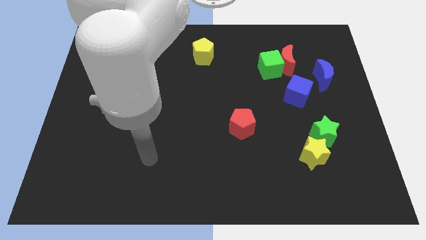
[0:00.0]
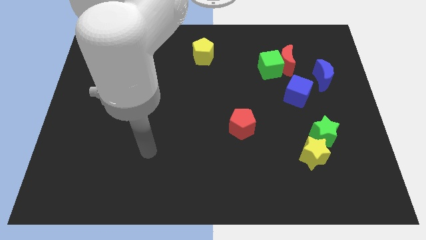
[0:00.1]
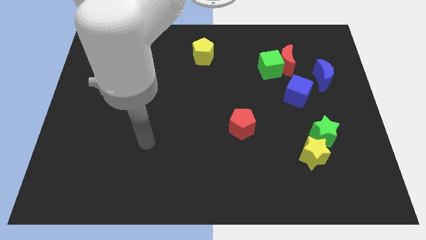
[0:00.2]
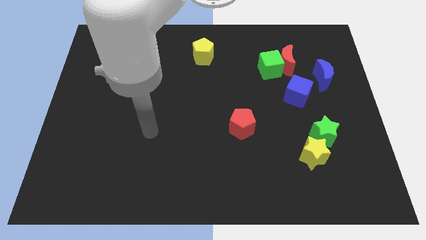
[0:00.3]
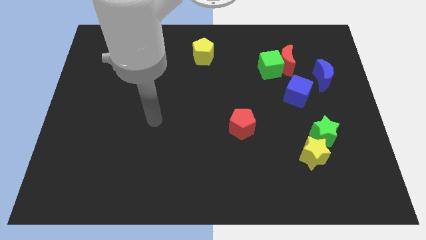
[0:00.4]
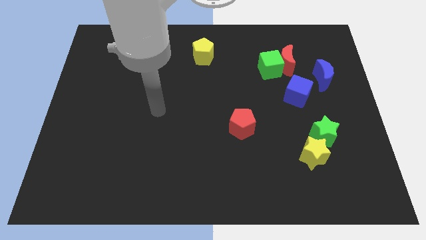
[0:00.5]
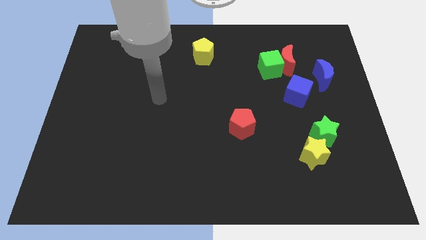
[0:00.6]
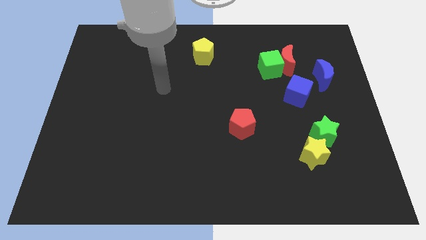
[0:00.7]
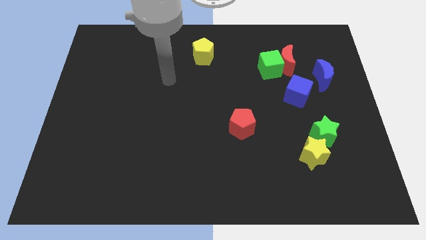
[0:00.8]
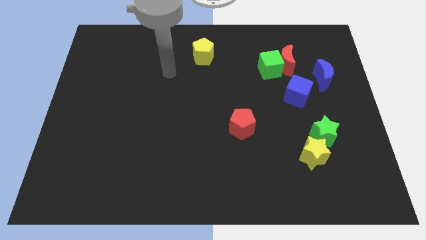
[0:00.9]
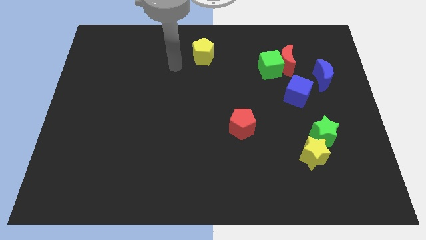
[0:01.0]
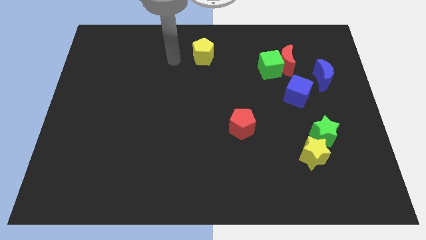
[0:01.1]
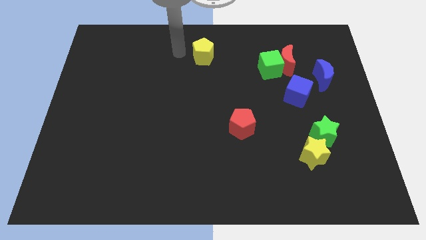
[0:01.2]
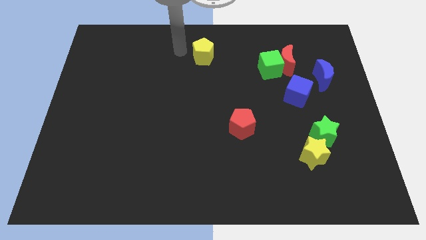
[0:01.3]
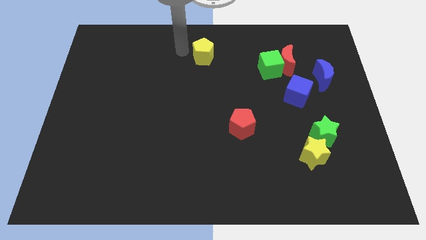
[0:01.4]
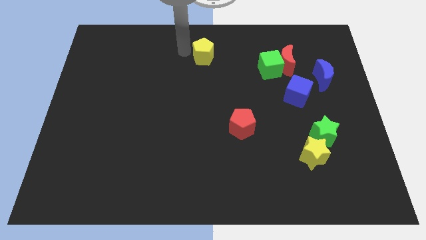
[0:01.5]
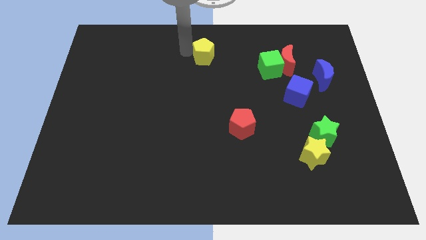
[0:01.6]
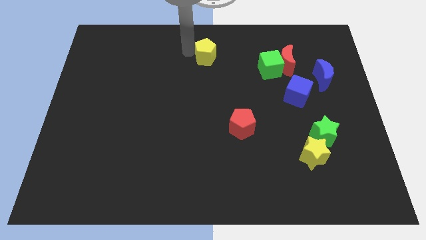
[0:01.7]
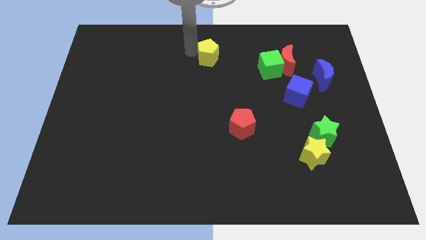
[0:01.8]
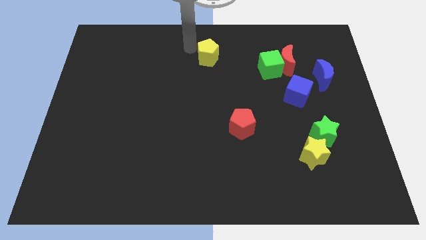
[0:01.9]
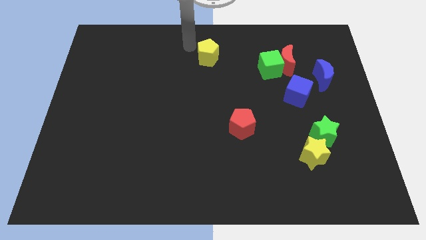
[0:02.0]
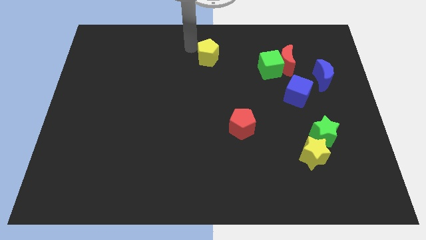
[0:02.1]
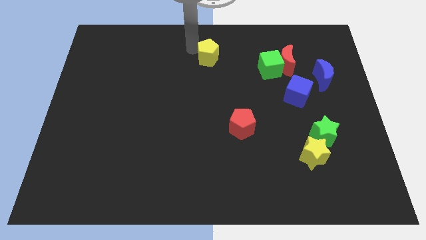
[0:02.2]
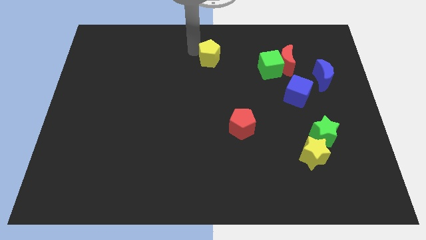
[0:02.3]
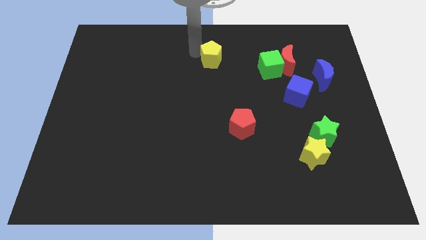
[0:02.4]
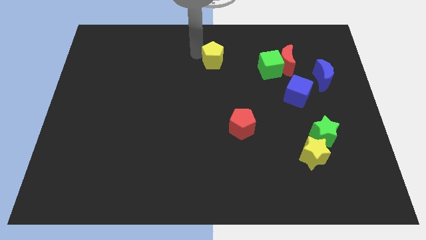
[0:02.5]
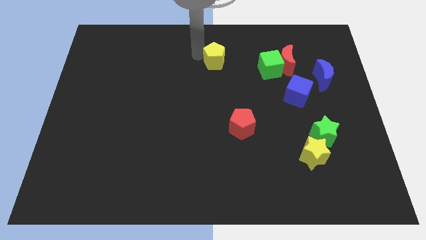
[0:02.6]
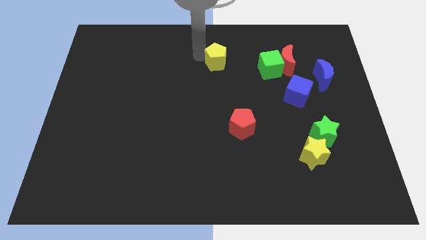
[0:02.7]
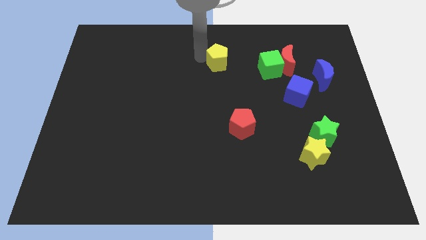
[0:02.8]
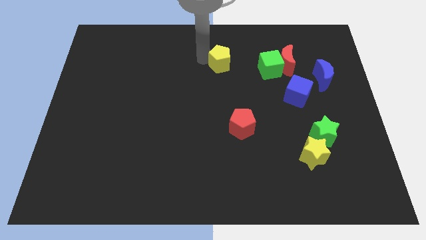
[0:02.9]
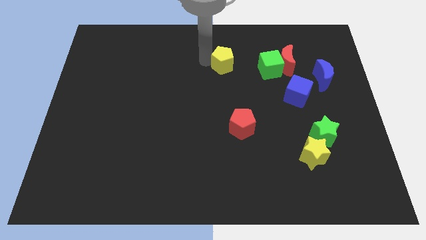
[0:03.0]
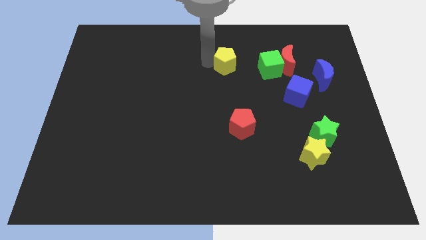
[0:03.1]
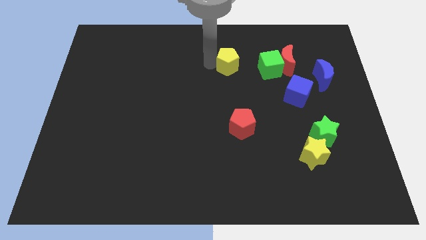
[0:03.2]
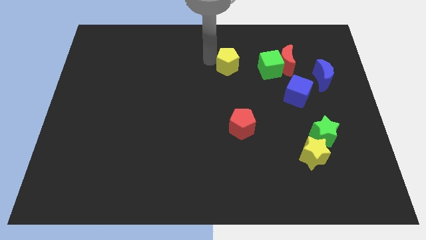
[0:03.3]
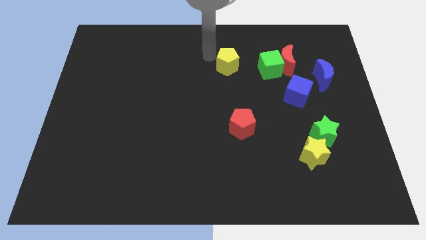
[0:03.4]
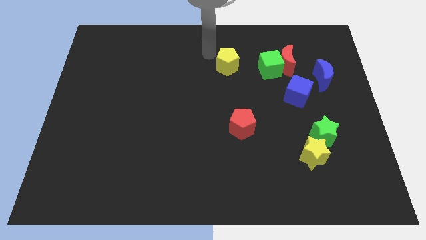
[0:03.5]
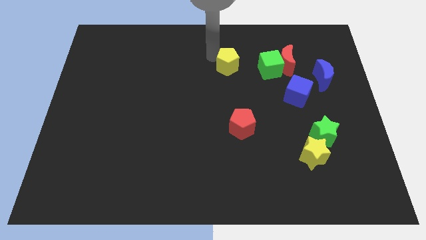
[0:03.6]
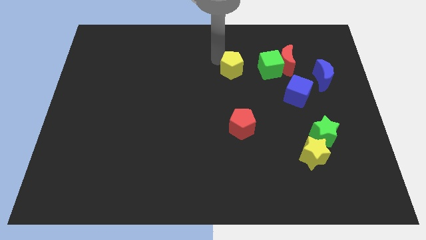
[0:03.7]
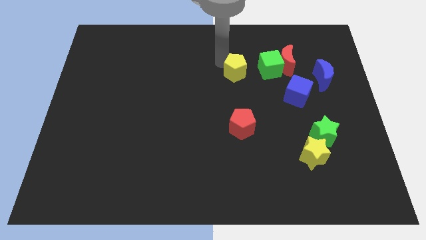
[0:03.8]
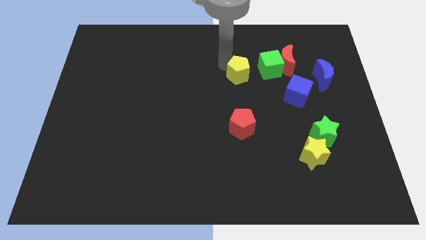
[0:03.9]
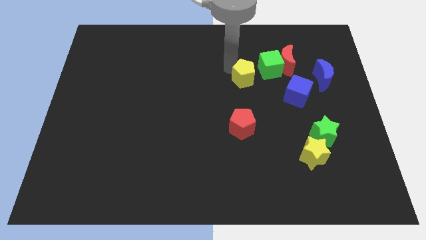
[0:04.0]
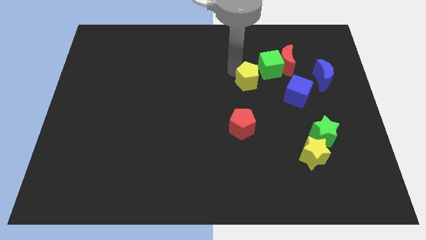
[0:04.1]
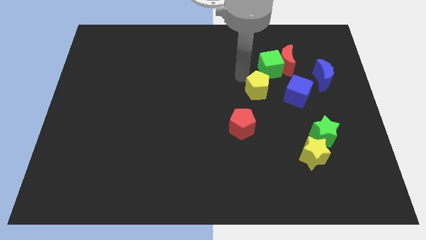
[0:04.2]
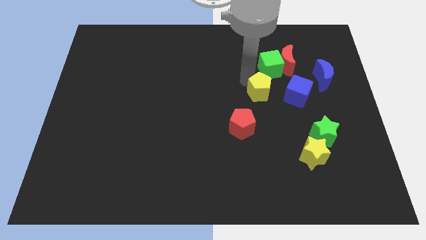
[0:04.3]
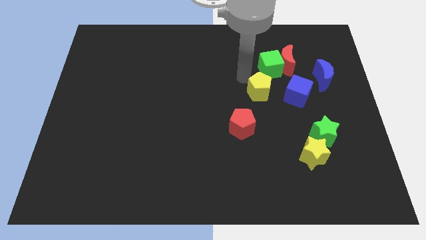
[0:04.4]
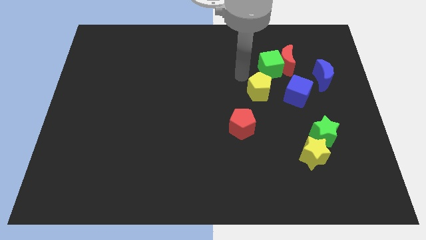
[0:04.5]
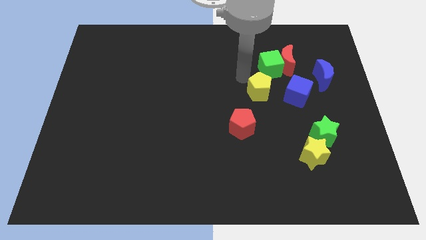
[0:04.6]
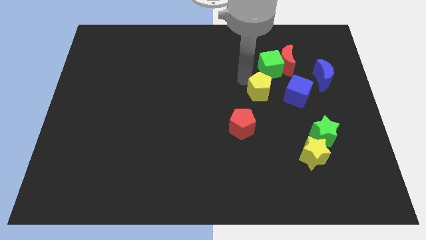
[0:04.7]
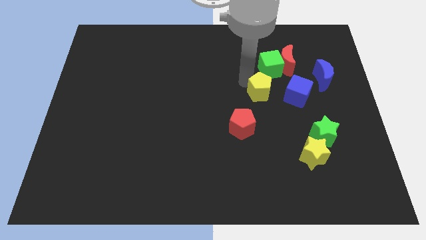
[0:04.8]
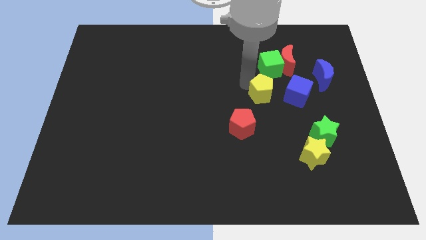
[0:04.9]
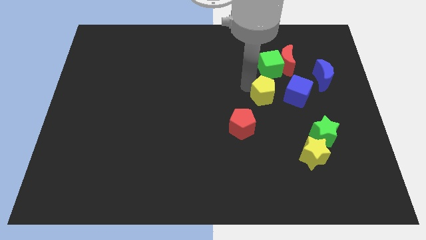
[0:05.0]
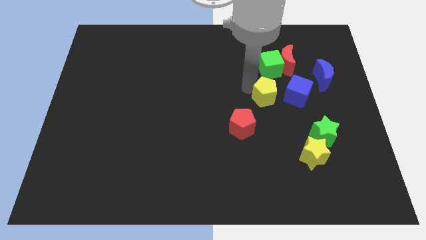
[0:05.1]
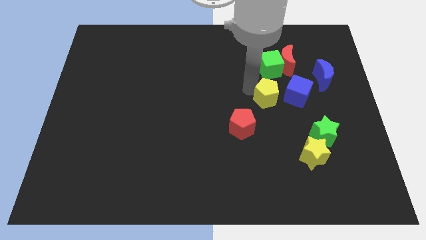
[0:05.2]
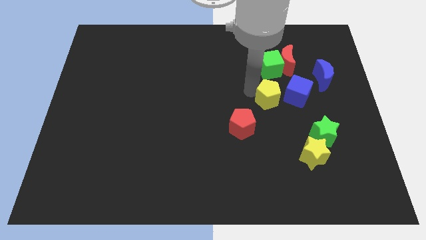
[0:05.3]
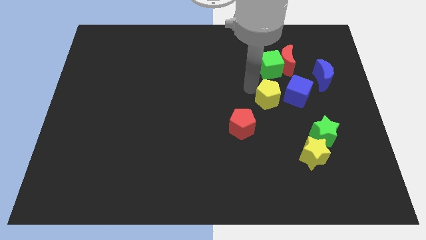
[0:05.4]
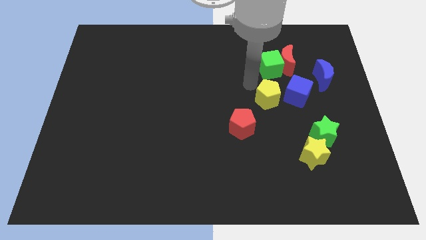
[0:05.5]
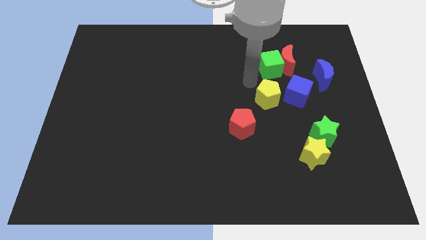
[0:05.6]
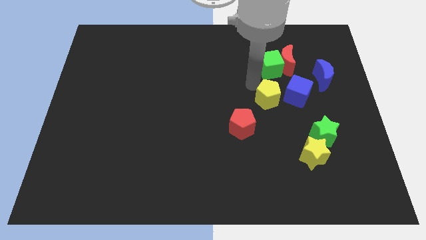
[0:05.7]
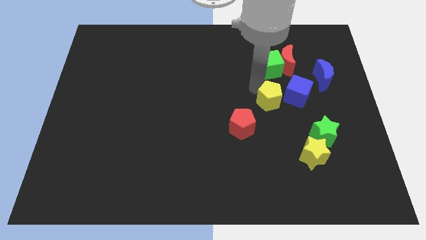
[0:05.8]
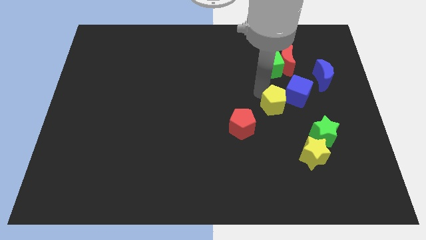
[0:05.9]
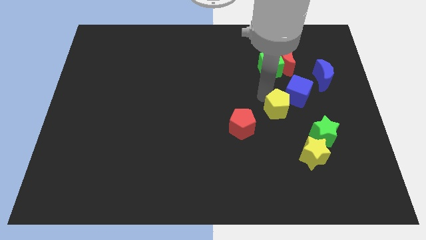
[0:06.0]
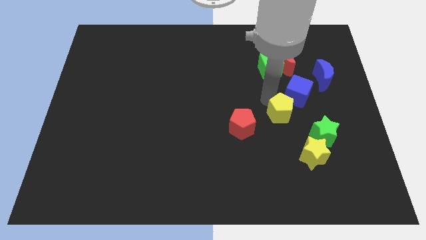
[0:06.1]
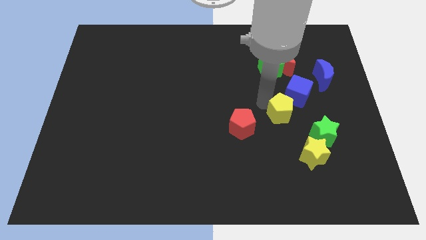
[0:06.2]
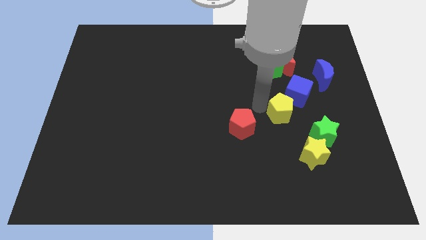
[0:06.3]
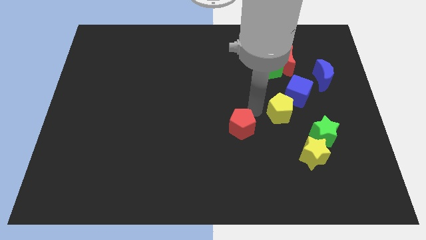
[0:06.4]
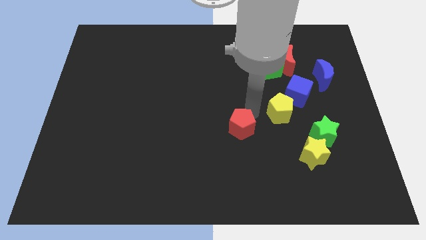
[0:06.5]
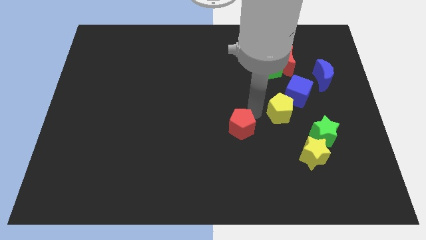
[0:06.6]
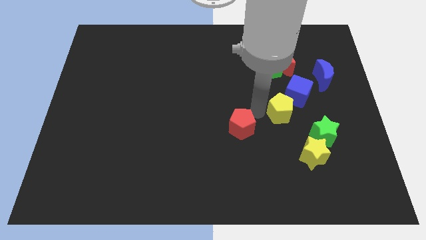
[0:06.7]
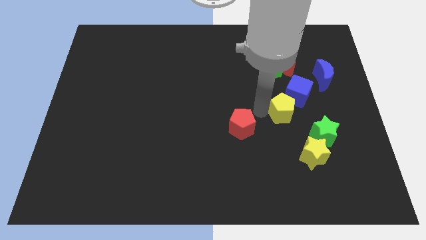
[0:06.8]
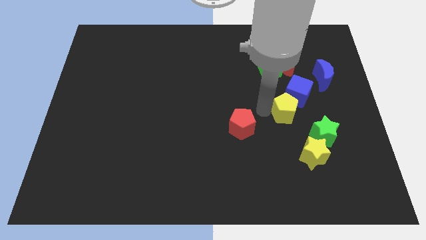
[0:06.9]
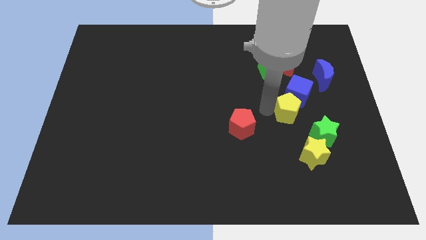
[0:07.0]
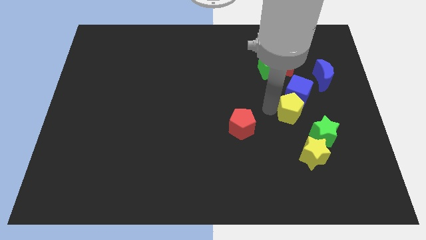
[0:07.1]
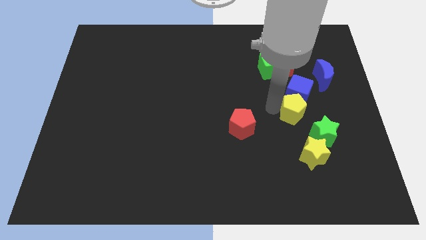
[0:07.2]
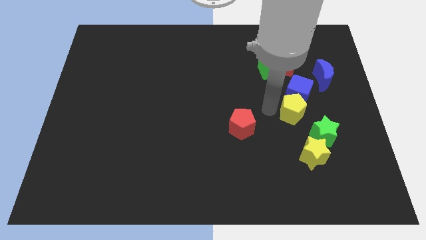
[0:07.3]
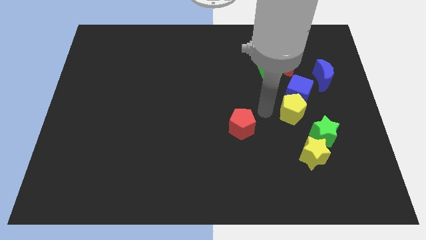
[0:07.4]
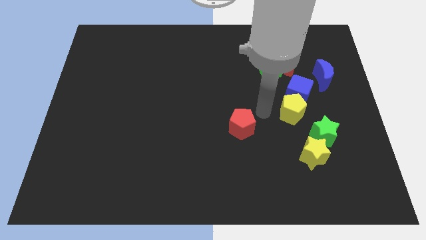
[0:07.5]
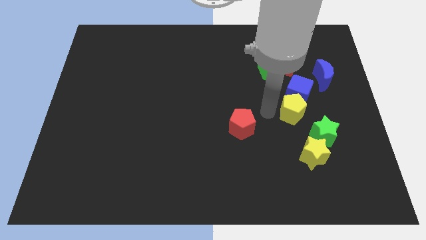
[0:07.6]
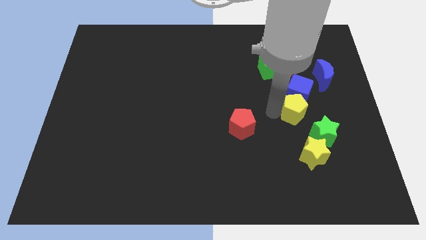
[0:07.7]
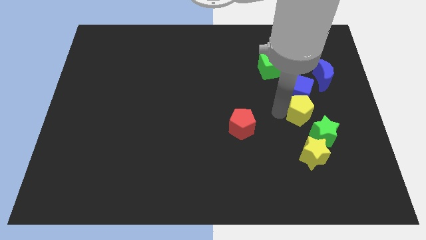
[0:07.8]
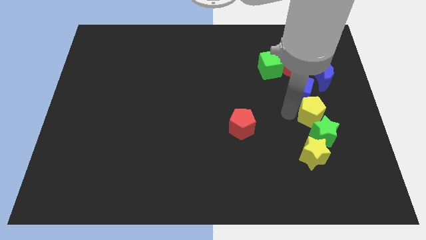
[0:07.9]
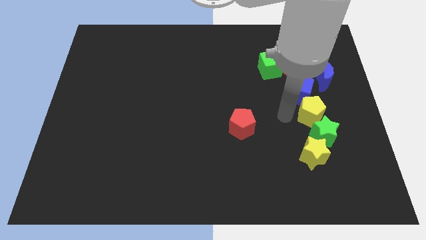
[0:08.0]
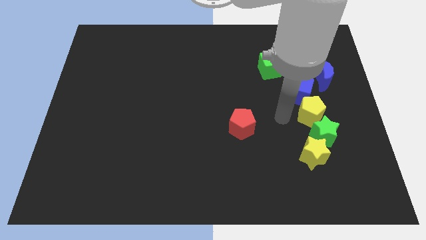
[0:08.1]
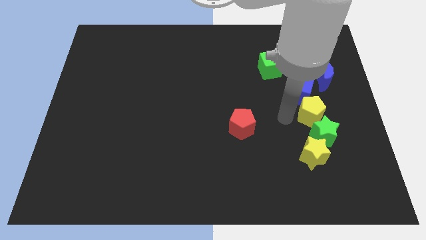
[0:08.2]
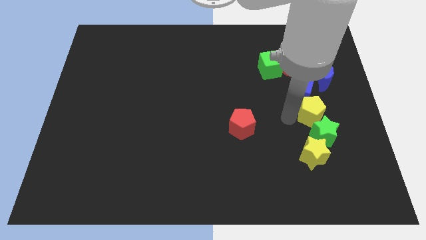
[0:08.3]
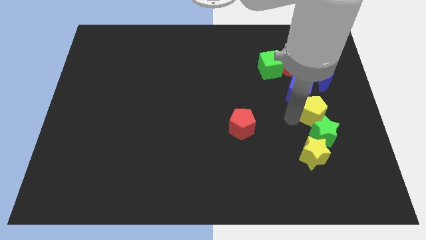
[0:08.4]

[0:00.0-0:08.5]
move the yellow pentagon below the blue moon
